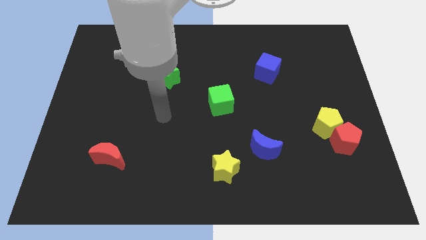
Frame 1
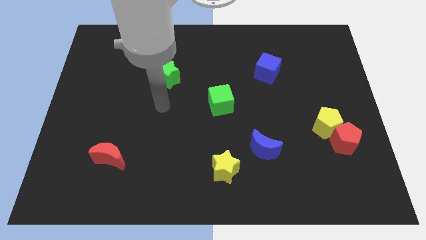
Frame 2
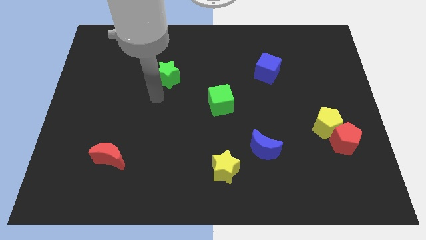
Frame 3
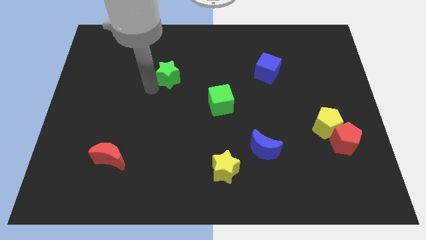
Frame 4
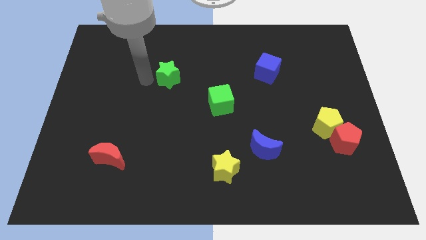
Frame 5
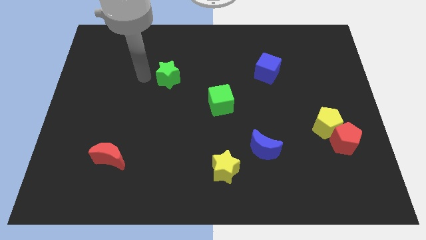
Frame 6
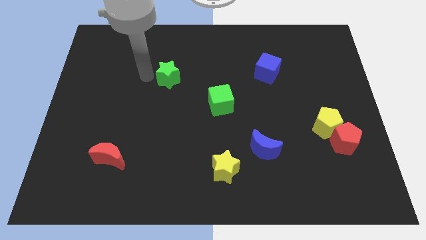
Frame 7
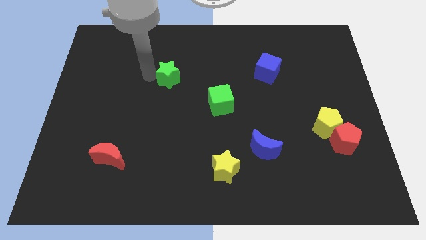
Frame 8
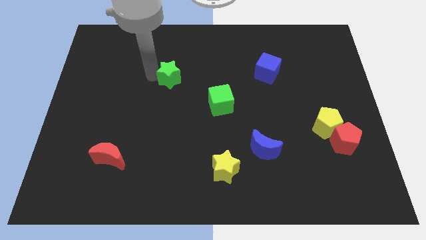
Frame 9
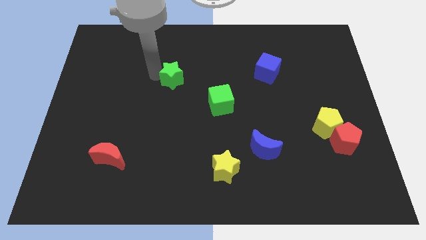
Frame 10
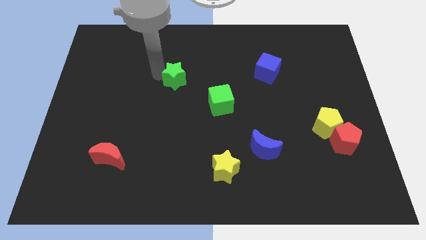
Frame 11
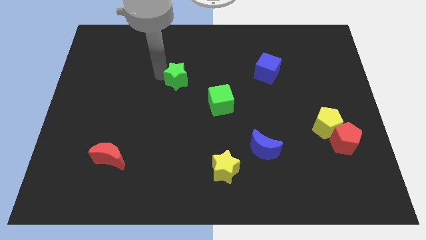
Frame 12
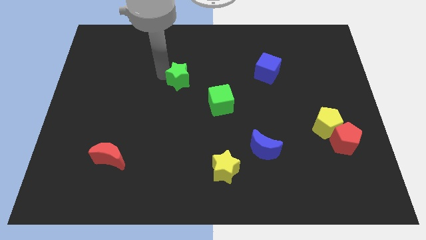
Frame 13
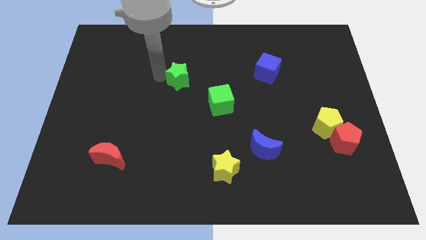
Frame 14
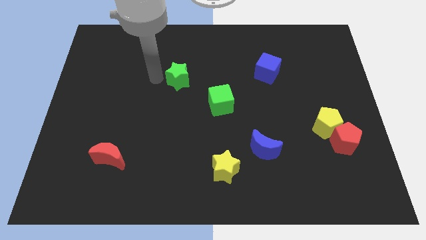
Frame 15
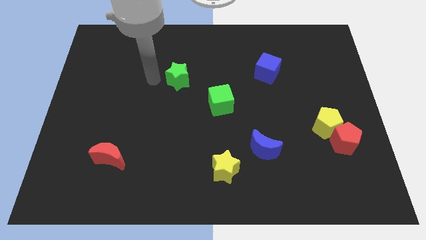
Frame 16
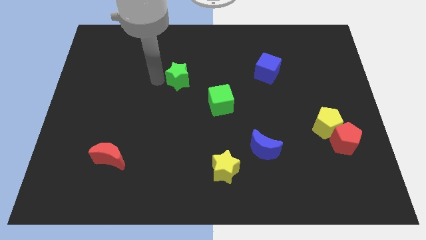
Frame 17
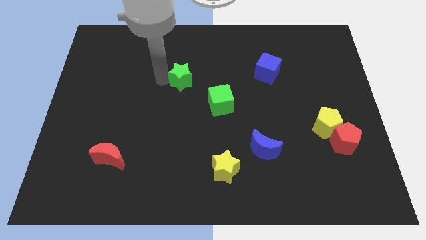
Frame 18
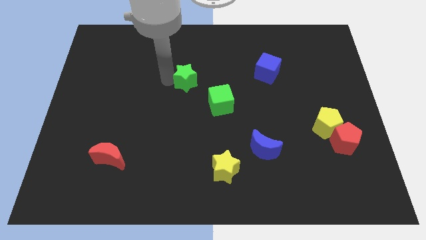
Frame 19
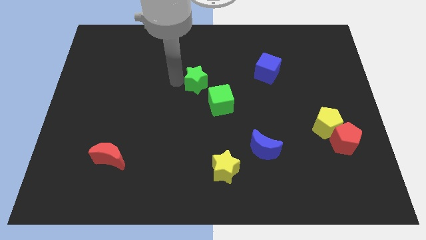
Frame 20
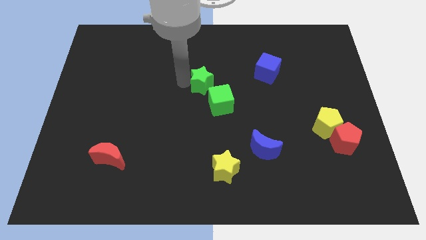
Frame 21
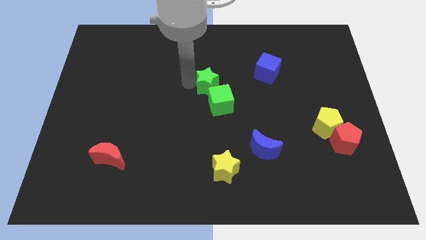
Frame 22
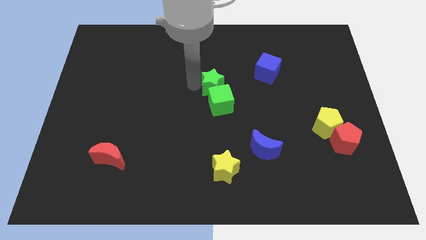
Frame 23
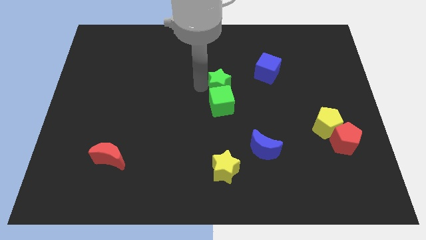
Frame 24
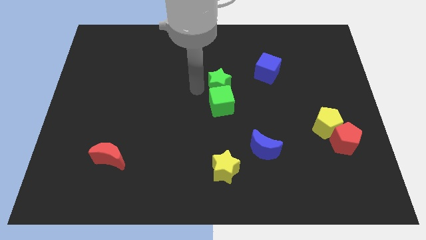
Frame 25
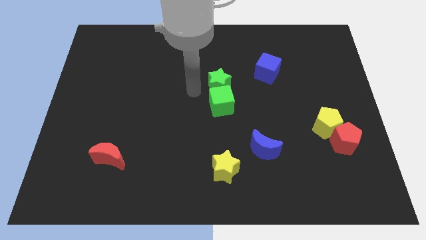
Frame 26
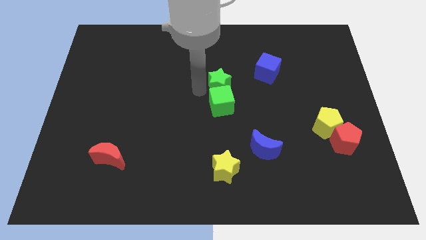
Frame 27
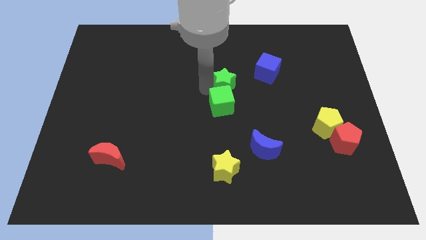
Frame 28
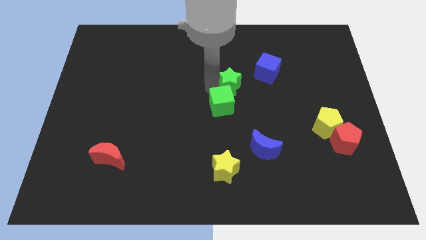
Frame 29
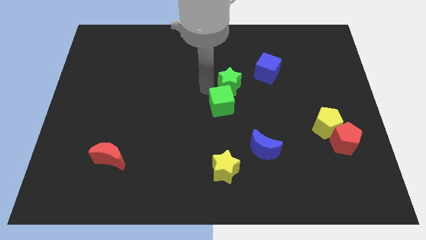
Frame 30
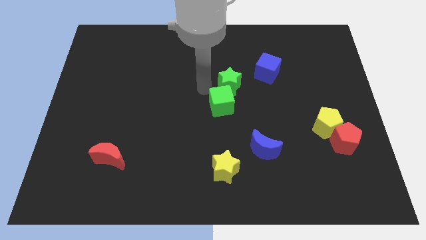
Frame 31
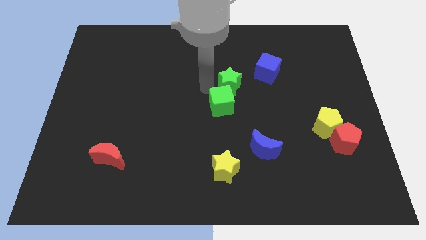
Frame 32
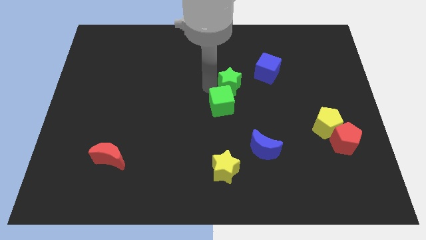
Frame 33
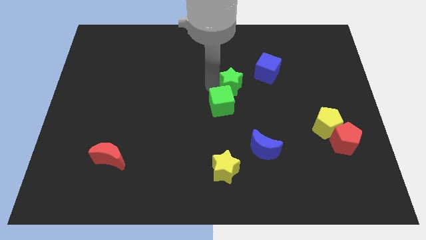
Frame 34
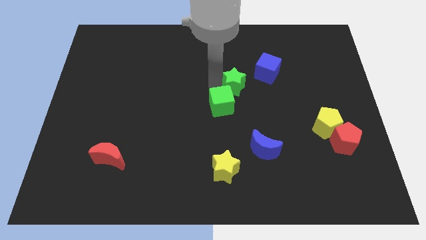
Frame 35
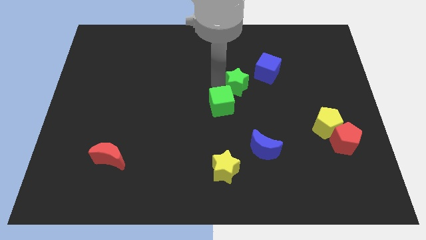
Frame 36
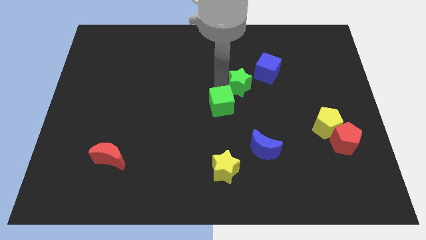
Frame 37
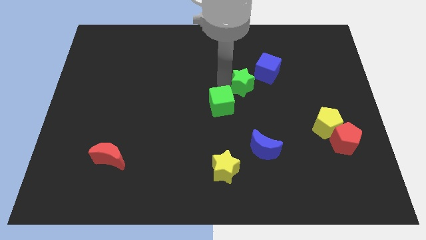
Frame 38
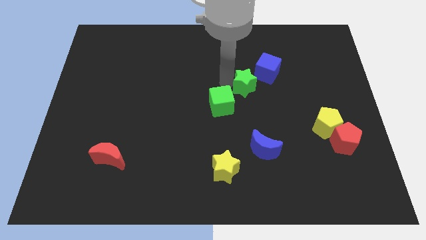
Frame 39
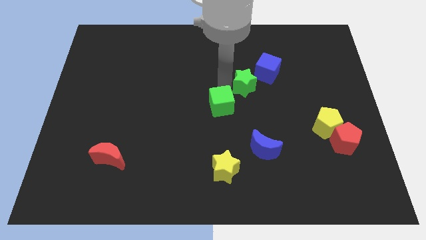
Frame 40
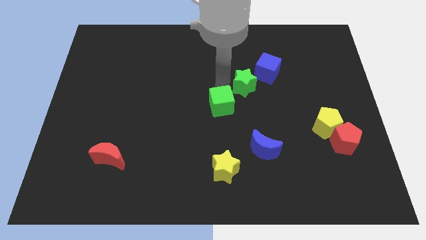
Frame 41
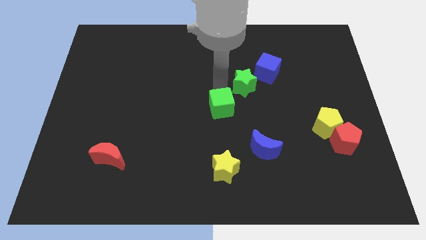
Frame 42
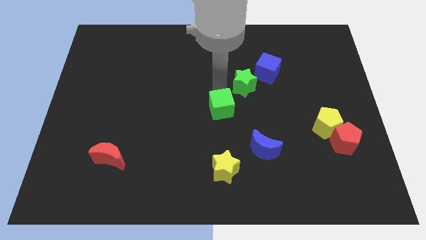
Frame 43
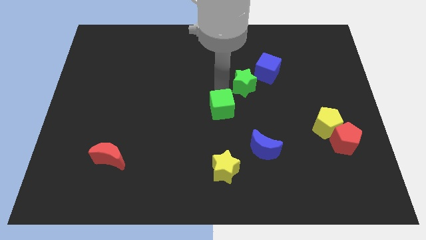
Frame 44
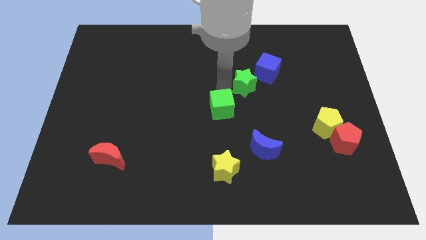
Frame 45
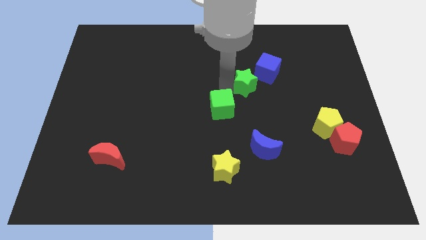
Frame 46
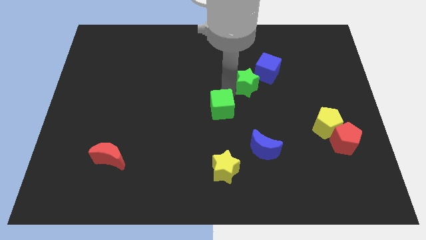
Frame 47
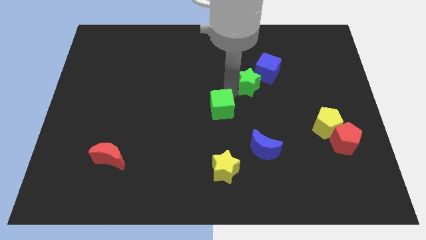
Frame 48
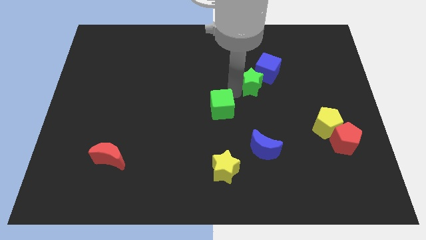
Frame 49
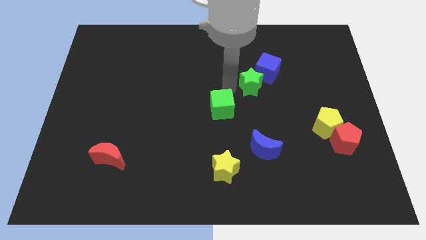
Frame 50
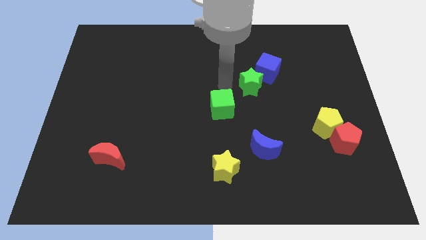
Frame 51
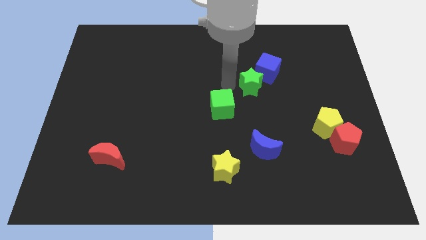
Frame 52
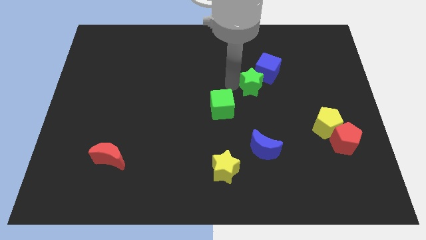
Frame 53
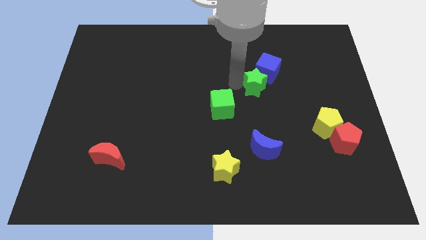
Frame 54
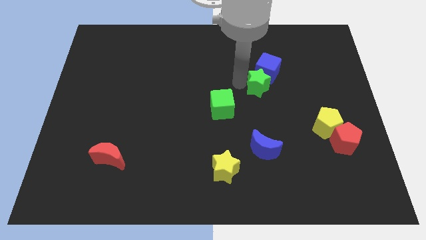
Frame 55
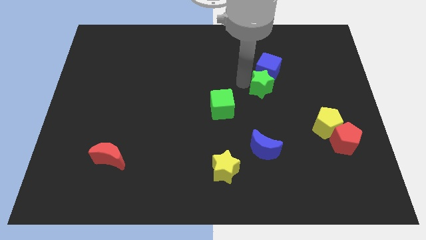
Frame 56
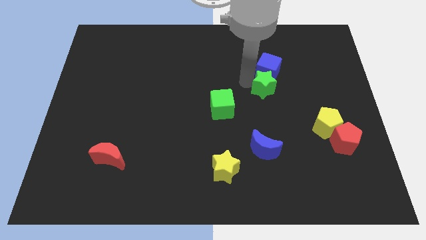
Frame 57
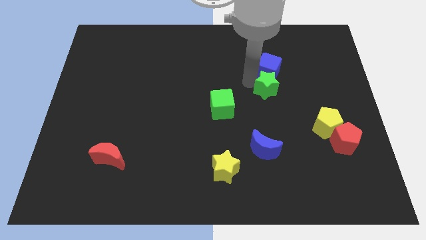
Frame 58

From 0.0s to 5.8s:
move the green star diagonally down and to the right of the blue cube

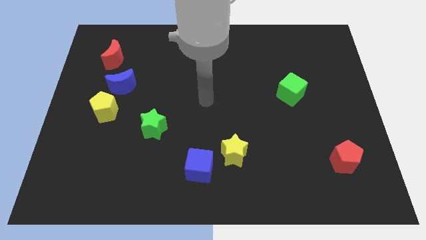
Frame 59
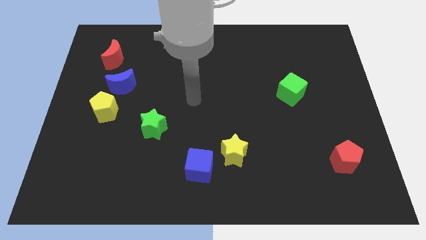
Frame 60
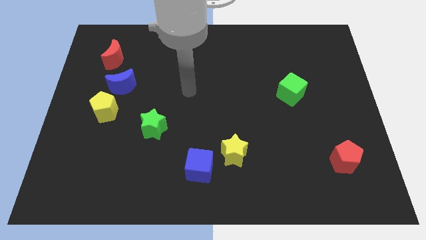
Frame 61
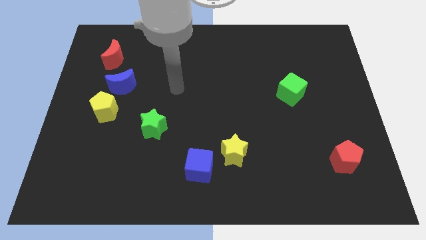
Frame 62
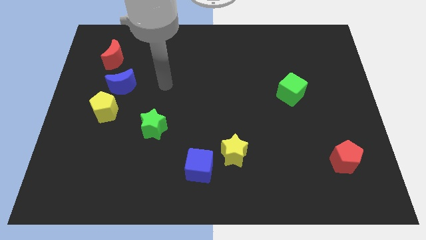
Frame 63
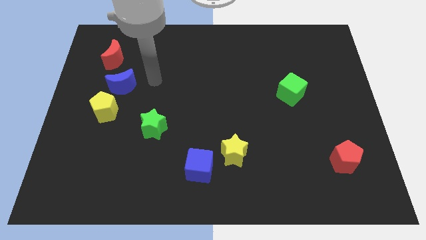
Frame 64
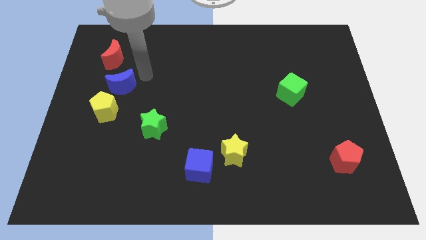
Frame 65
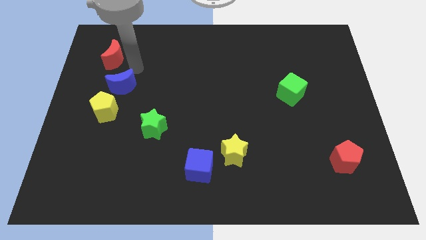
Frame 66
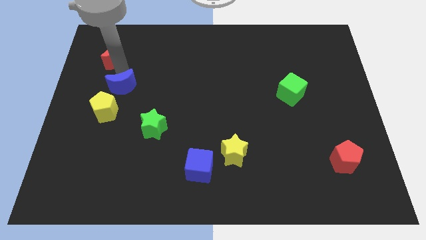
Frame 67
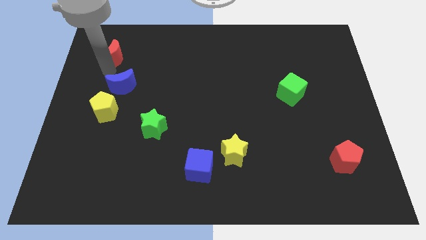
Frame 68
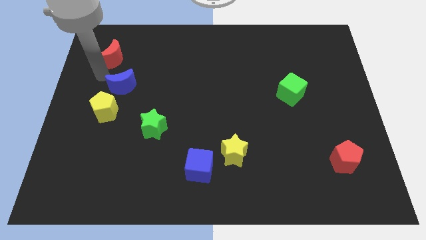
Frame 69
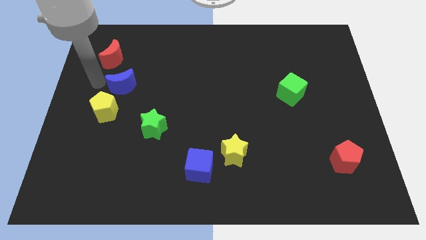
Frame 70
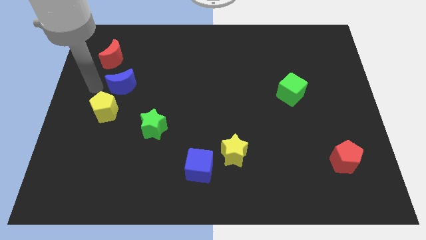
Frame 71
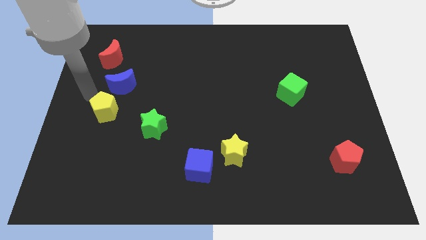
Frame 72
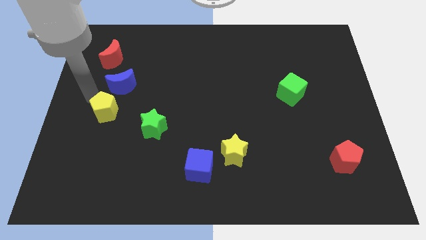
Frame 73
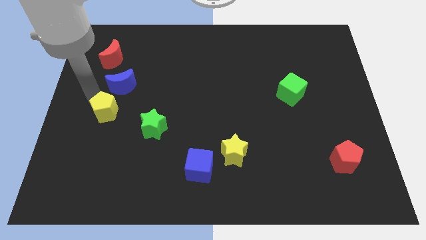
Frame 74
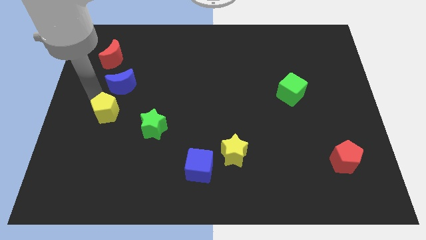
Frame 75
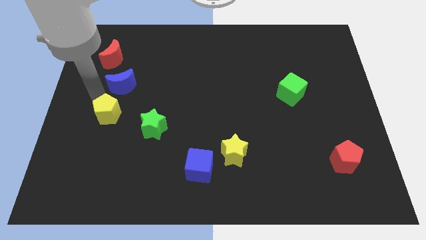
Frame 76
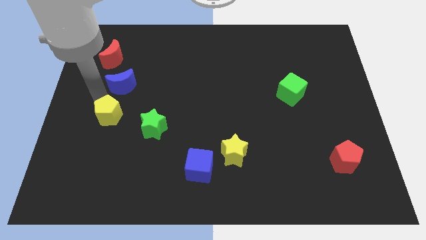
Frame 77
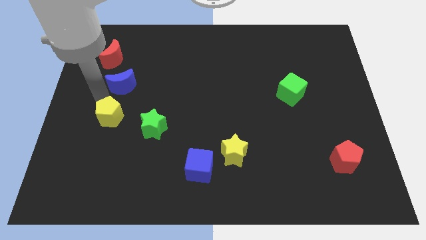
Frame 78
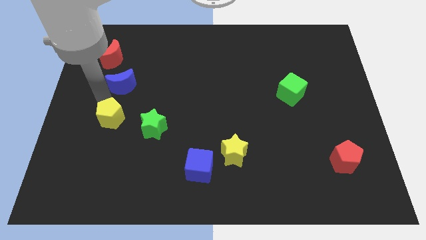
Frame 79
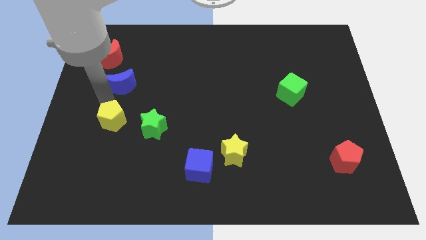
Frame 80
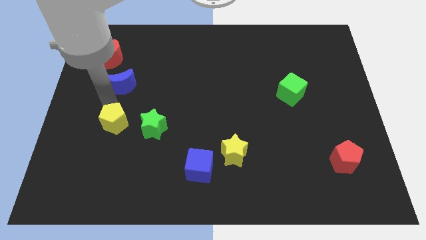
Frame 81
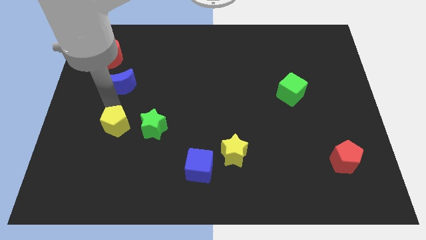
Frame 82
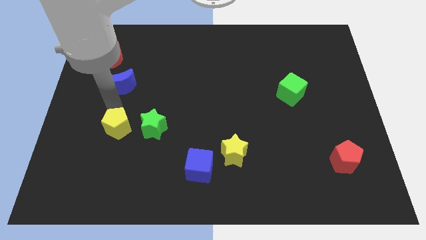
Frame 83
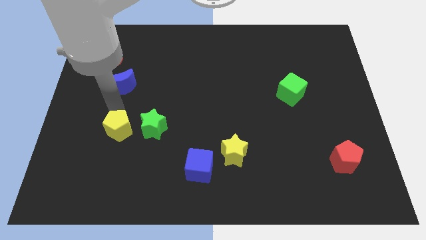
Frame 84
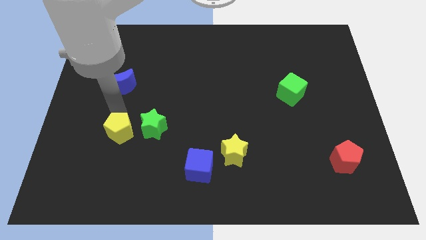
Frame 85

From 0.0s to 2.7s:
move the yellow pentagon diagonally down and to the left of the green star
